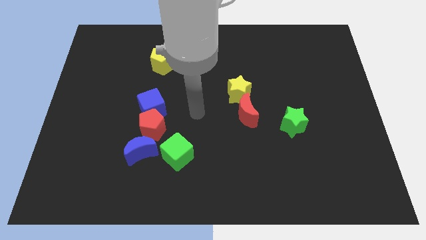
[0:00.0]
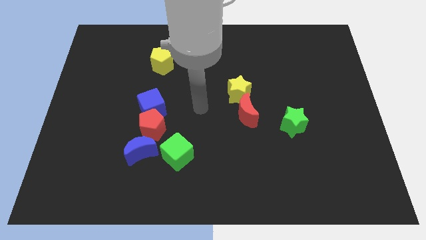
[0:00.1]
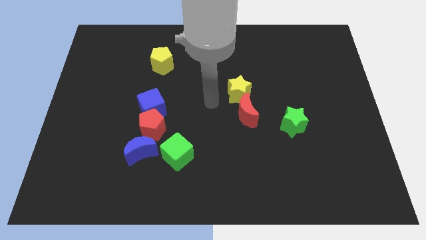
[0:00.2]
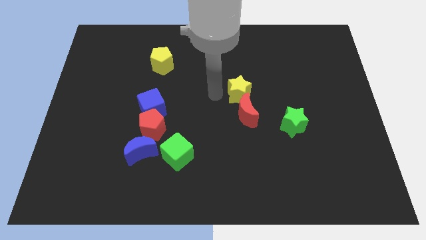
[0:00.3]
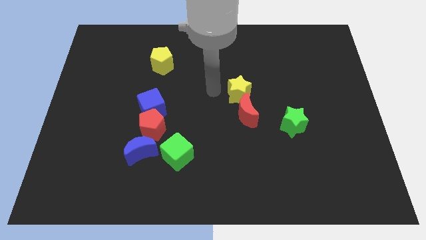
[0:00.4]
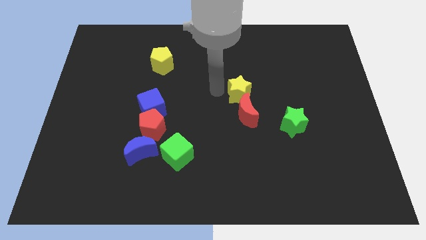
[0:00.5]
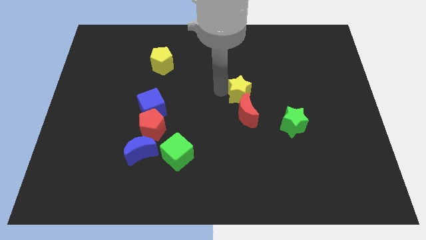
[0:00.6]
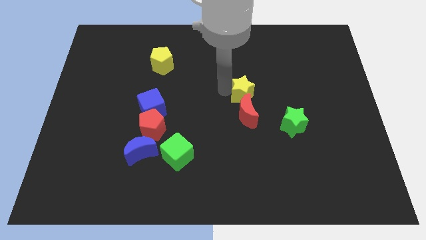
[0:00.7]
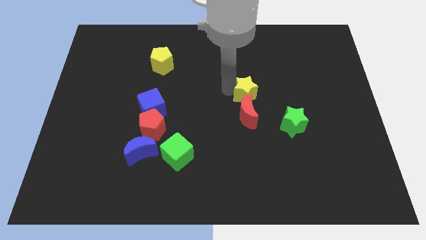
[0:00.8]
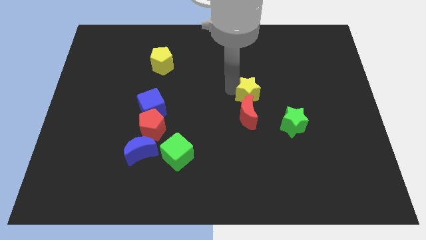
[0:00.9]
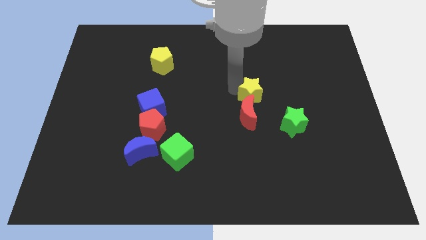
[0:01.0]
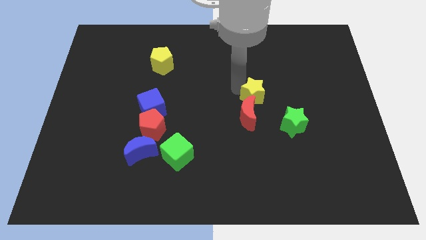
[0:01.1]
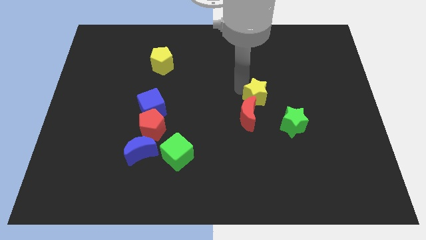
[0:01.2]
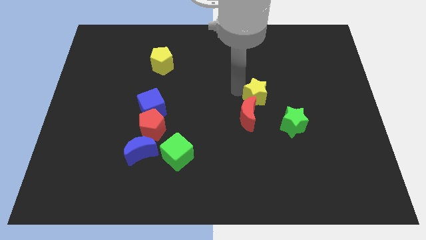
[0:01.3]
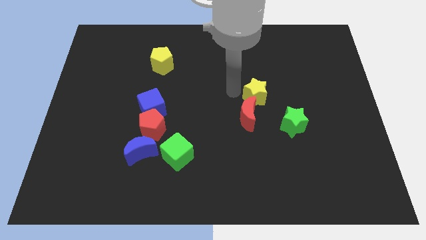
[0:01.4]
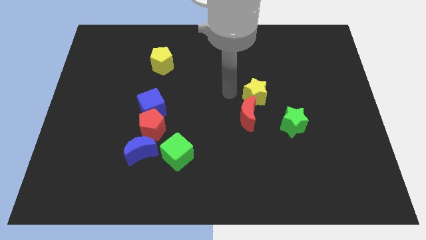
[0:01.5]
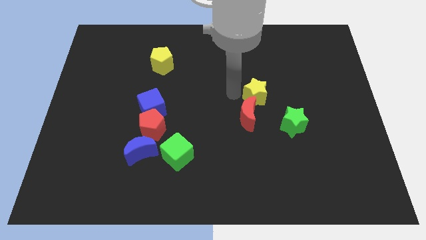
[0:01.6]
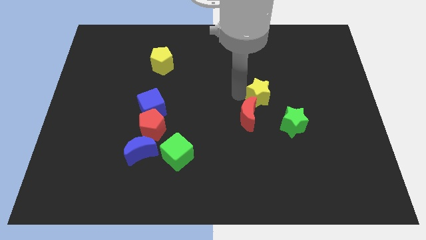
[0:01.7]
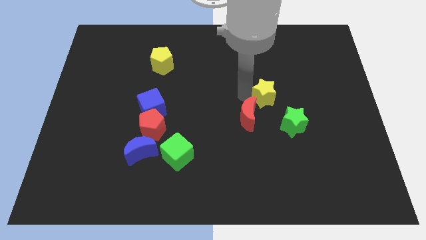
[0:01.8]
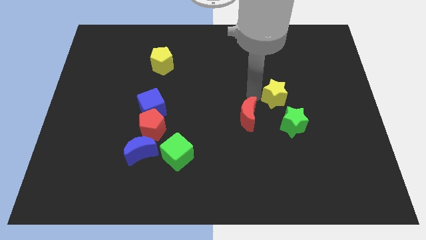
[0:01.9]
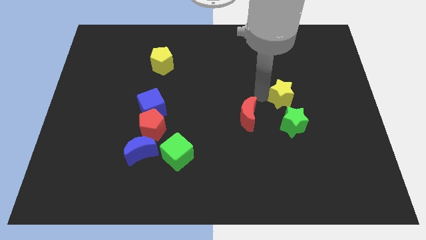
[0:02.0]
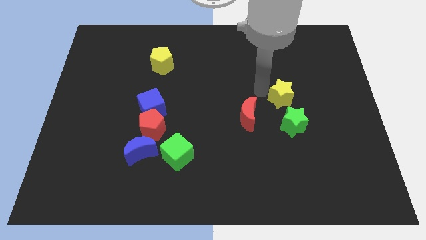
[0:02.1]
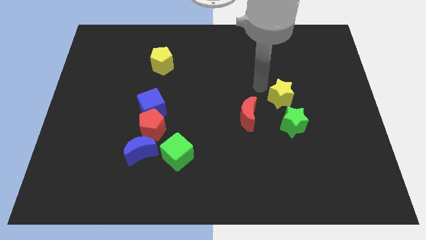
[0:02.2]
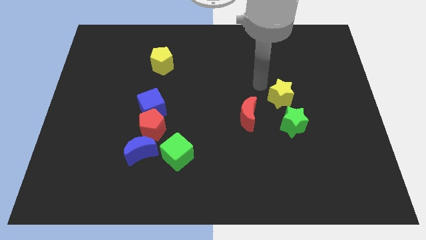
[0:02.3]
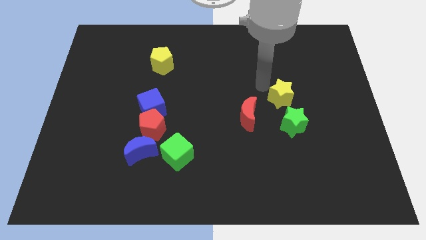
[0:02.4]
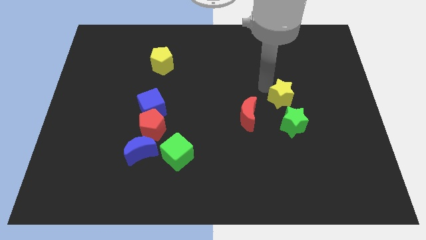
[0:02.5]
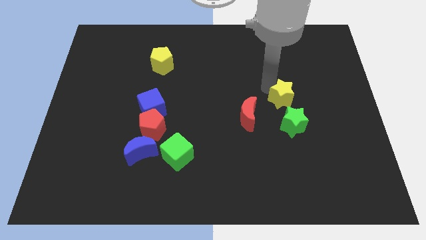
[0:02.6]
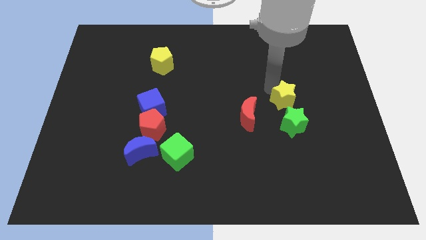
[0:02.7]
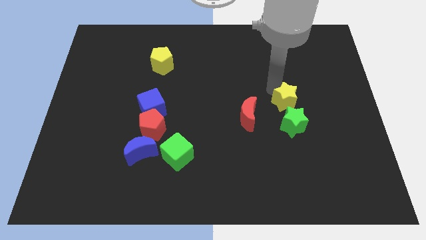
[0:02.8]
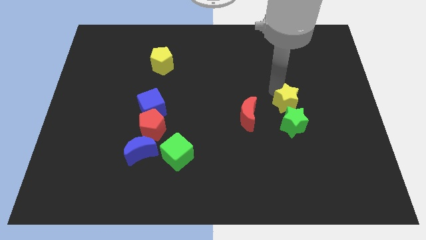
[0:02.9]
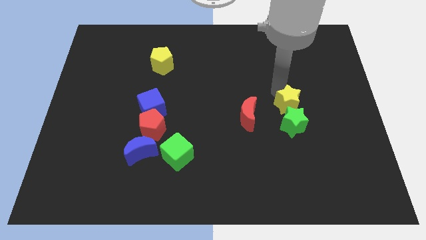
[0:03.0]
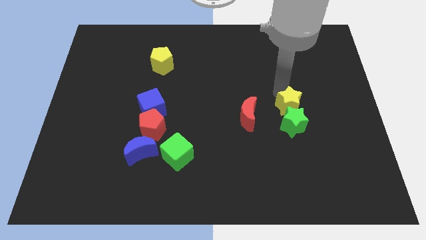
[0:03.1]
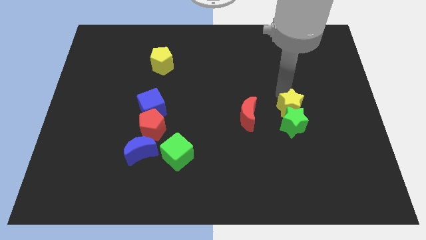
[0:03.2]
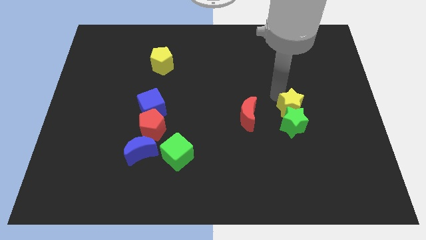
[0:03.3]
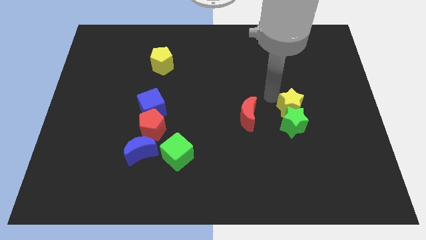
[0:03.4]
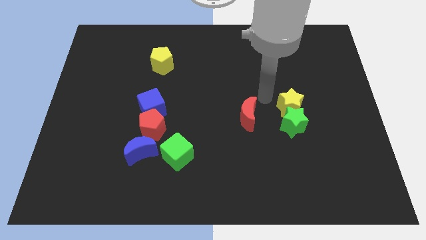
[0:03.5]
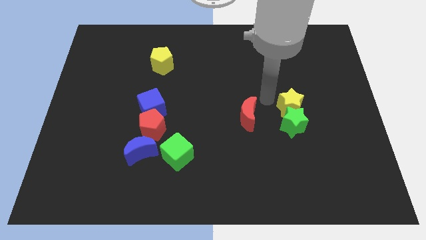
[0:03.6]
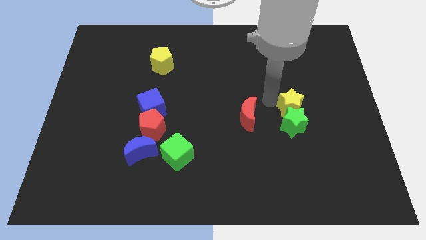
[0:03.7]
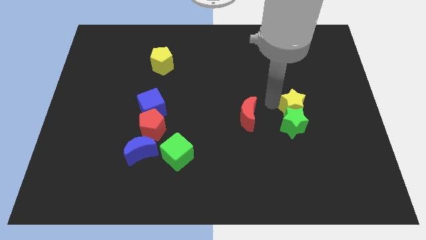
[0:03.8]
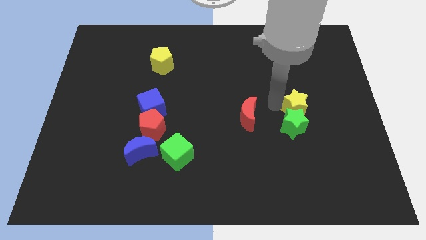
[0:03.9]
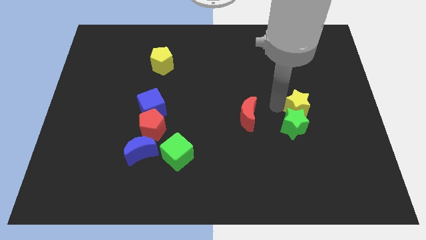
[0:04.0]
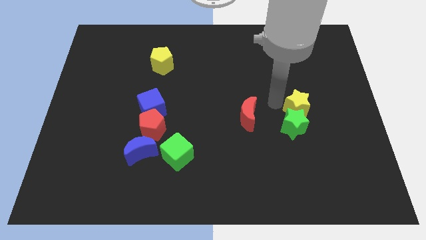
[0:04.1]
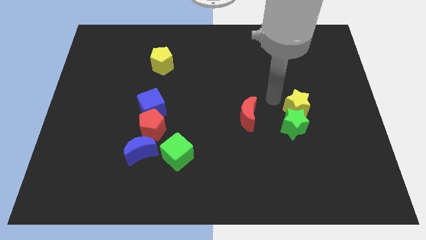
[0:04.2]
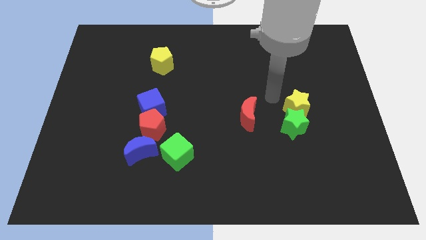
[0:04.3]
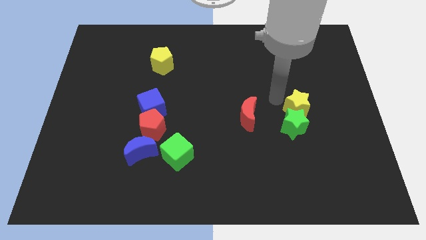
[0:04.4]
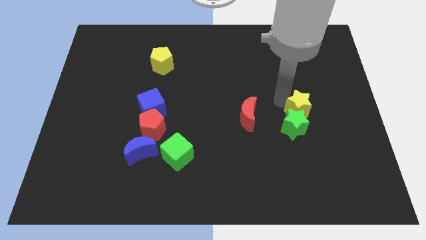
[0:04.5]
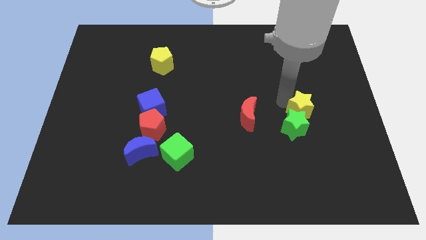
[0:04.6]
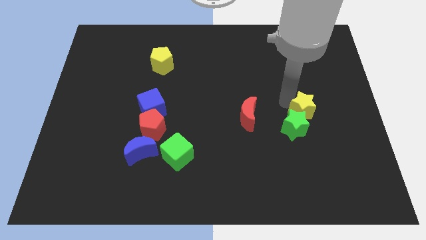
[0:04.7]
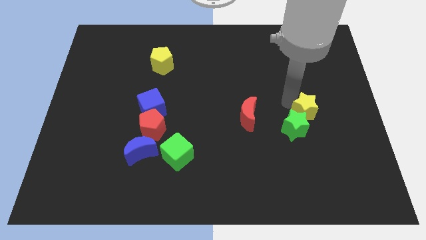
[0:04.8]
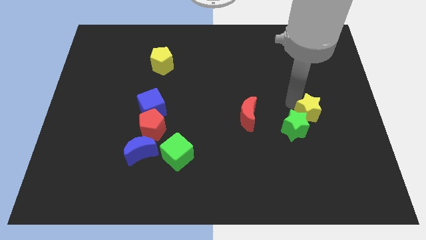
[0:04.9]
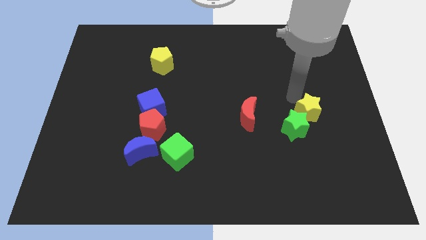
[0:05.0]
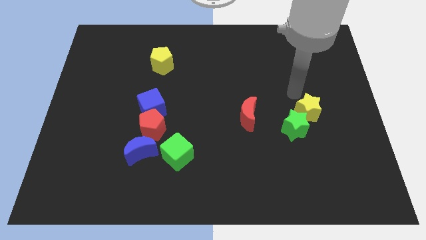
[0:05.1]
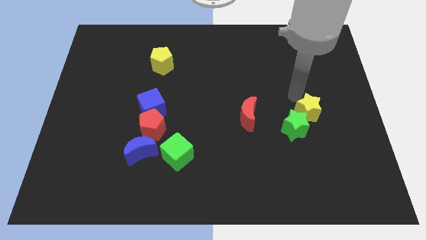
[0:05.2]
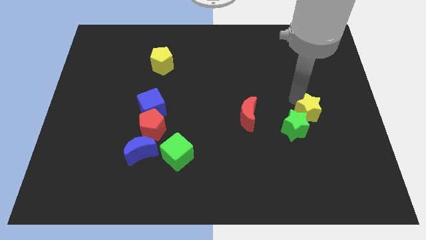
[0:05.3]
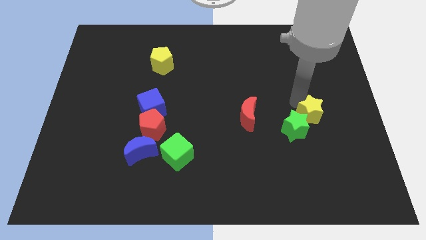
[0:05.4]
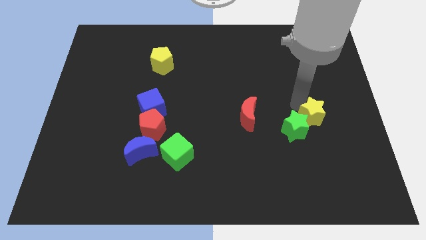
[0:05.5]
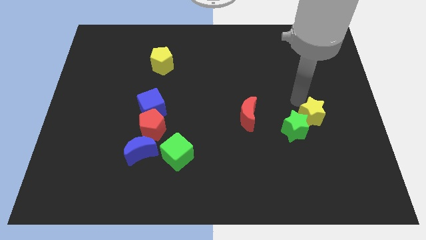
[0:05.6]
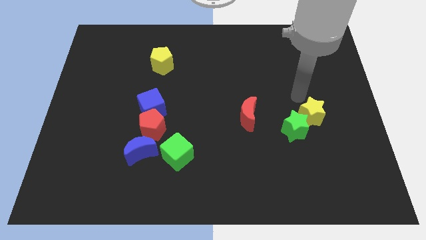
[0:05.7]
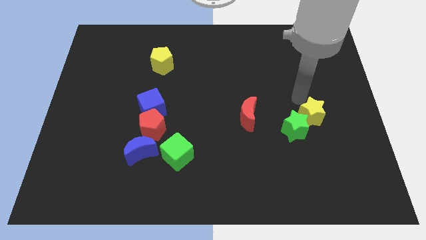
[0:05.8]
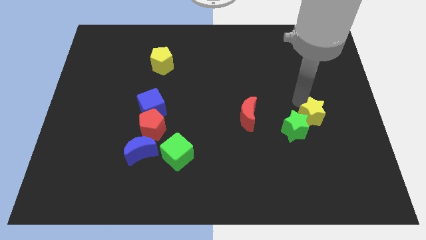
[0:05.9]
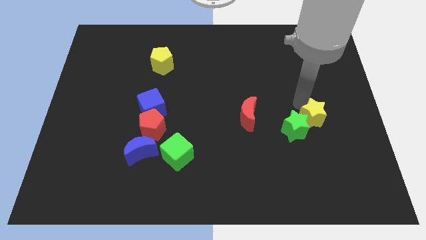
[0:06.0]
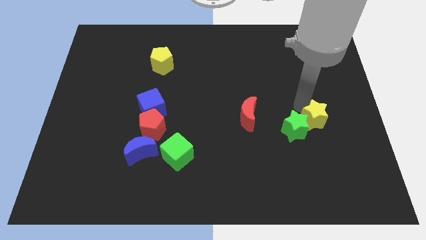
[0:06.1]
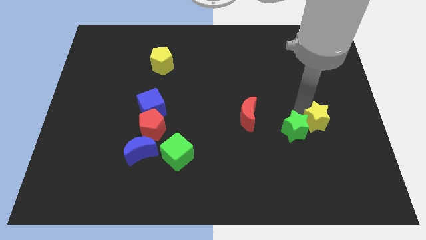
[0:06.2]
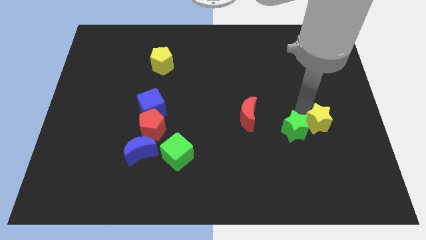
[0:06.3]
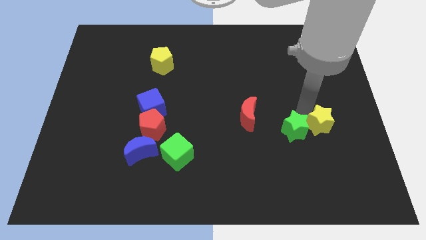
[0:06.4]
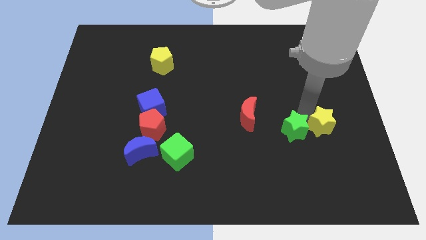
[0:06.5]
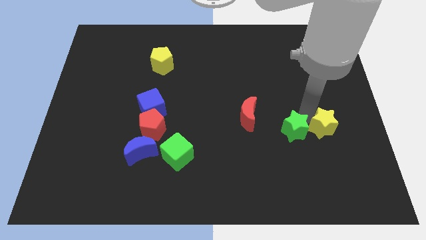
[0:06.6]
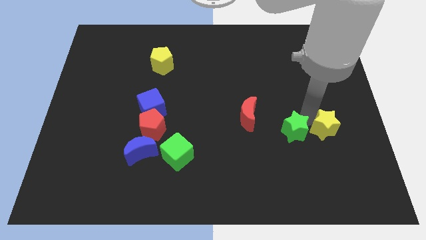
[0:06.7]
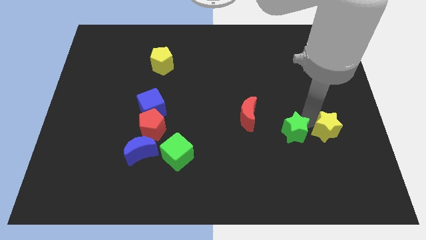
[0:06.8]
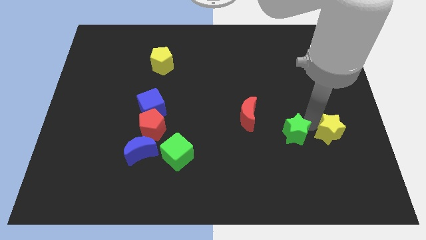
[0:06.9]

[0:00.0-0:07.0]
move the yellow star diagonally down and to the right

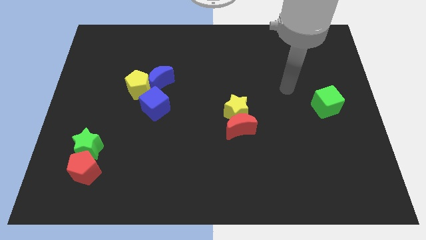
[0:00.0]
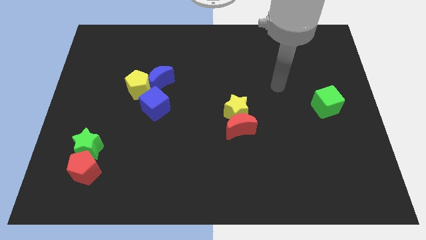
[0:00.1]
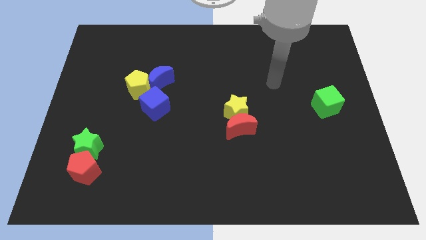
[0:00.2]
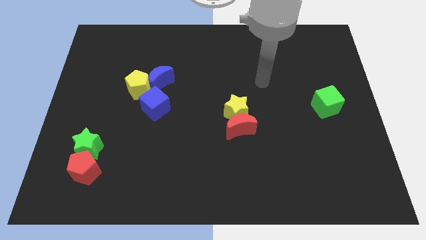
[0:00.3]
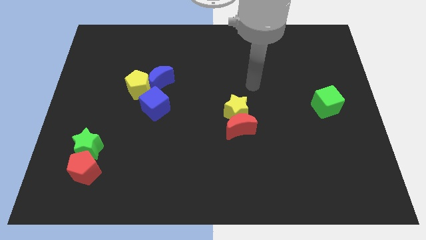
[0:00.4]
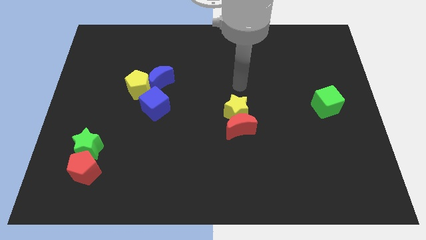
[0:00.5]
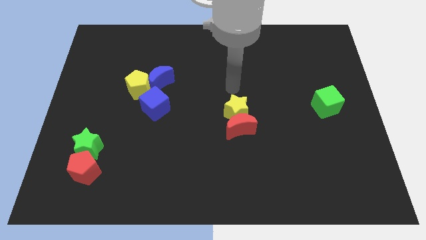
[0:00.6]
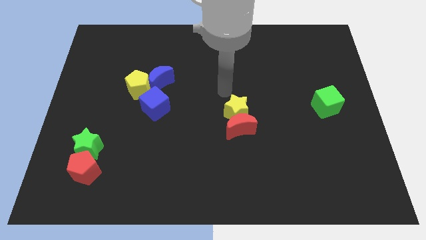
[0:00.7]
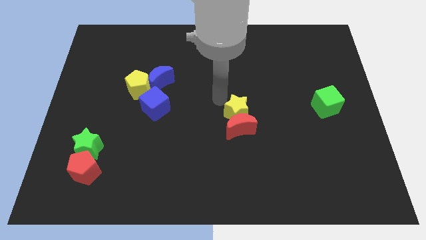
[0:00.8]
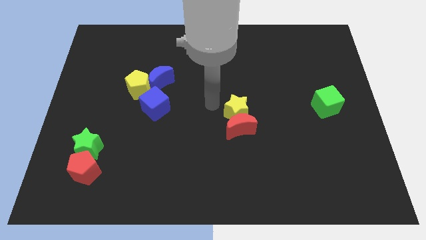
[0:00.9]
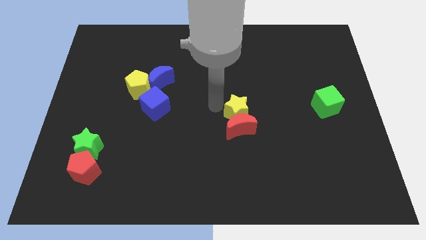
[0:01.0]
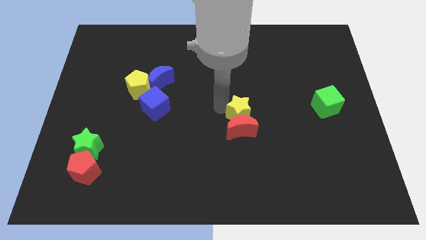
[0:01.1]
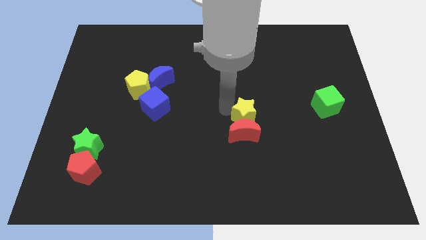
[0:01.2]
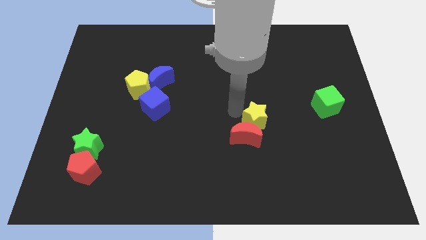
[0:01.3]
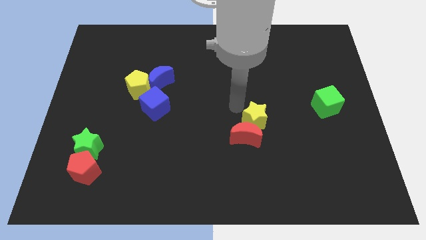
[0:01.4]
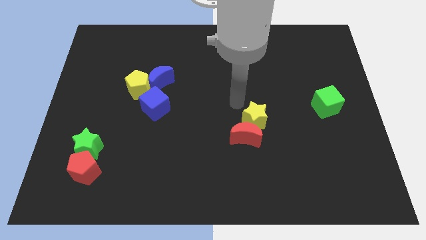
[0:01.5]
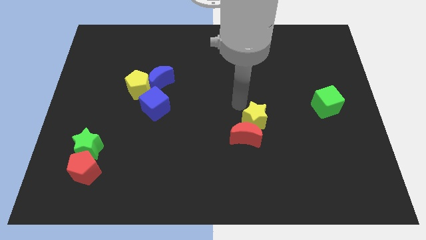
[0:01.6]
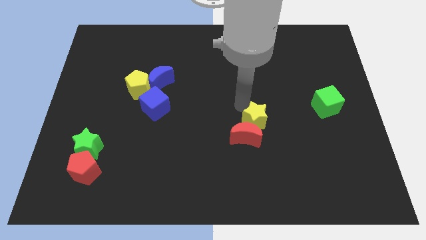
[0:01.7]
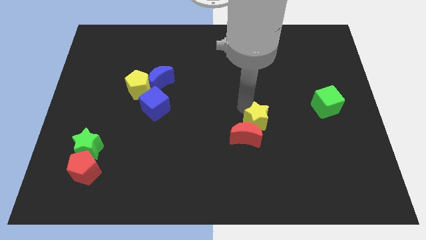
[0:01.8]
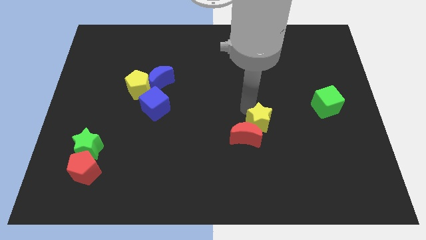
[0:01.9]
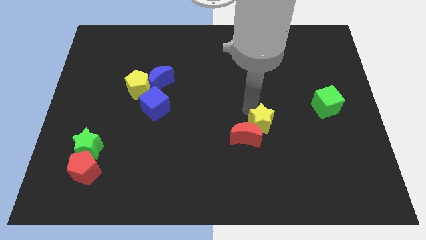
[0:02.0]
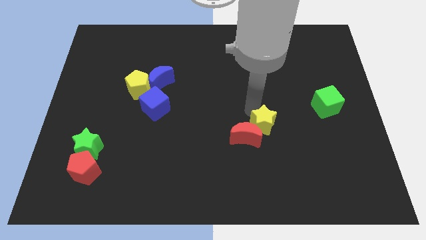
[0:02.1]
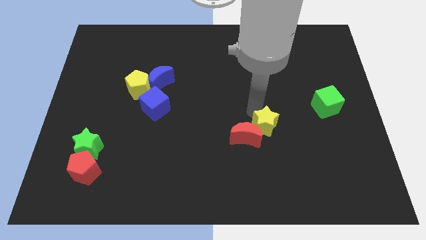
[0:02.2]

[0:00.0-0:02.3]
slightly push the yellow star diagonally downwards and to the right
